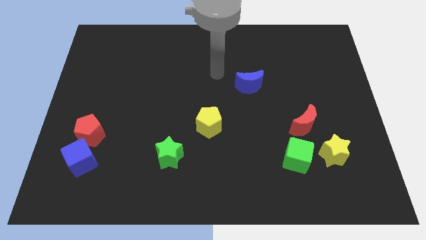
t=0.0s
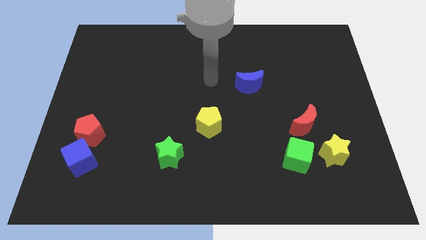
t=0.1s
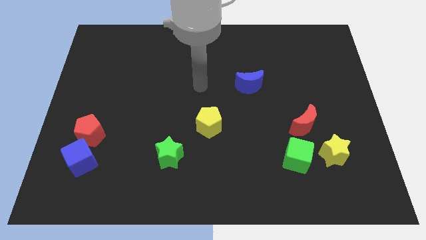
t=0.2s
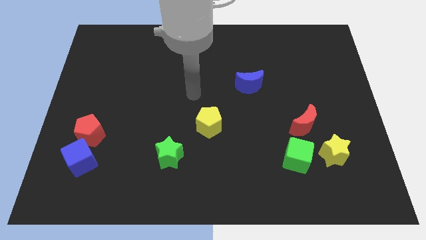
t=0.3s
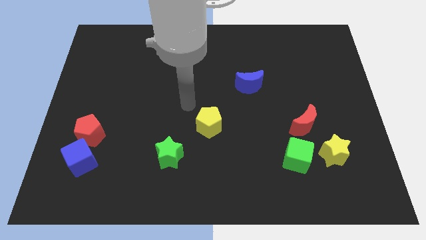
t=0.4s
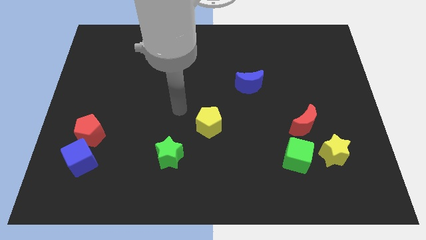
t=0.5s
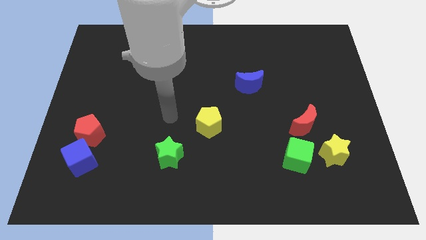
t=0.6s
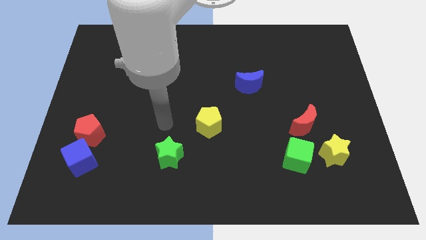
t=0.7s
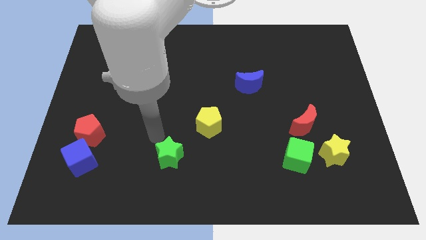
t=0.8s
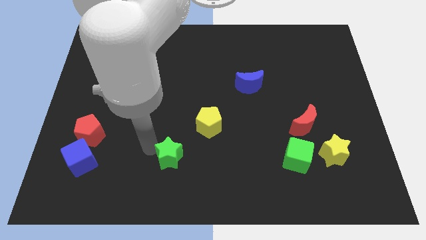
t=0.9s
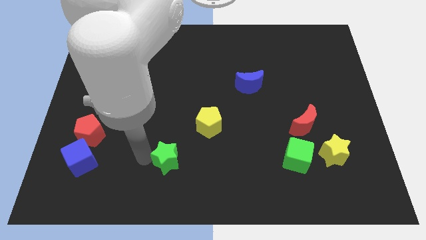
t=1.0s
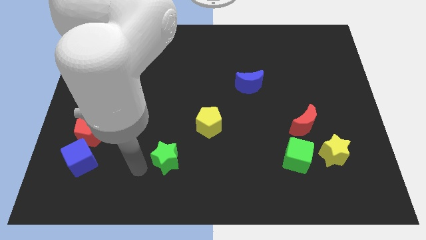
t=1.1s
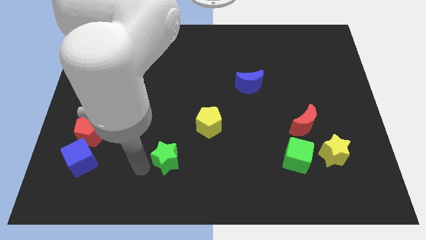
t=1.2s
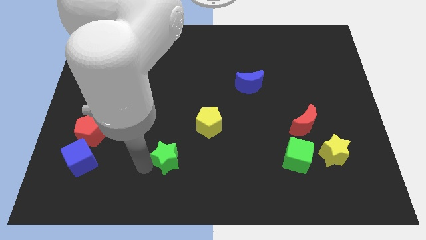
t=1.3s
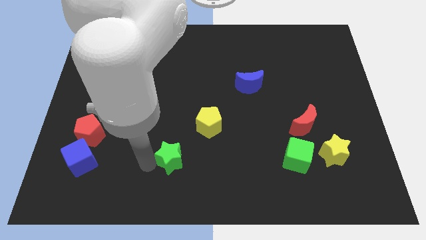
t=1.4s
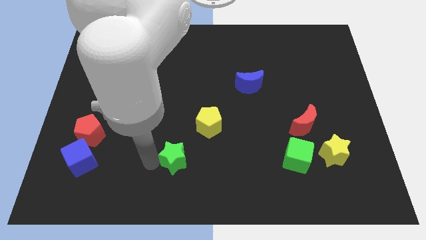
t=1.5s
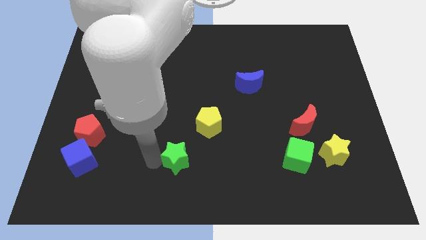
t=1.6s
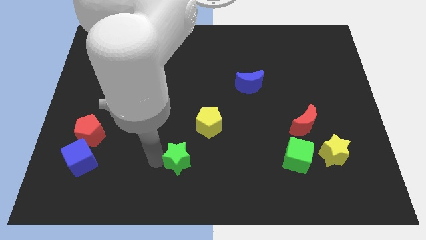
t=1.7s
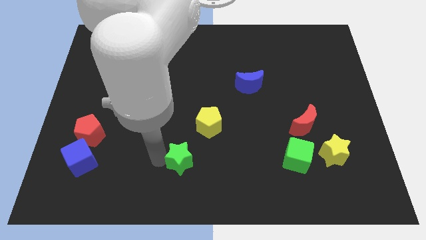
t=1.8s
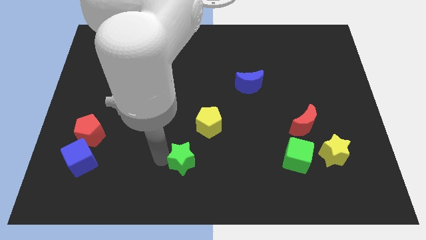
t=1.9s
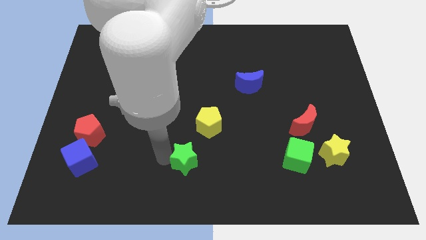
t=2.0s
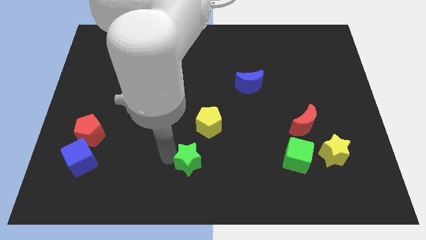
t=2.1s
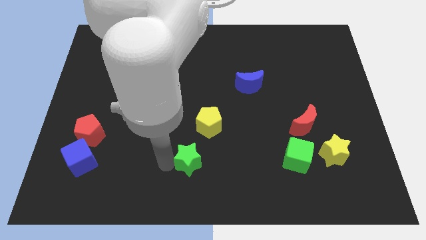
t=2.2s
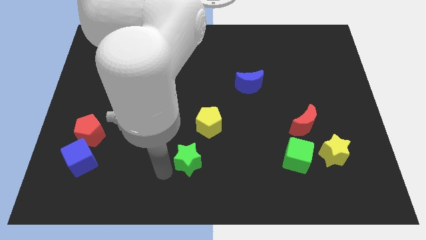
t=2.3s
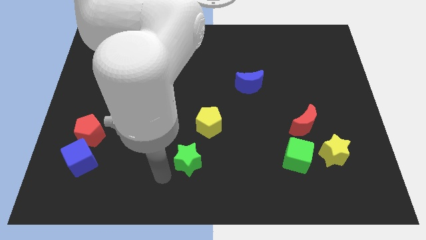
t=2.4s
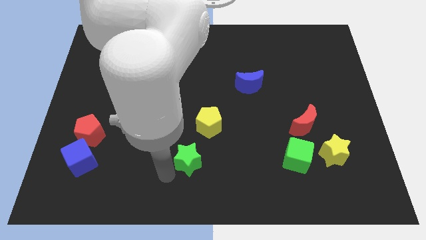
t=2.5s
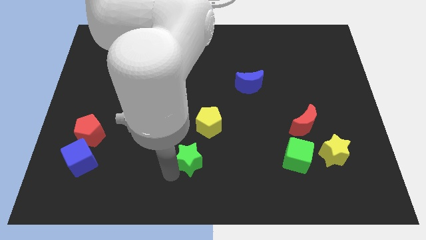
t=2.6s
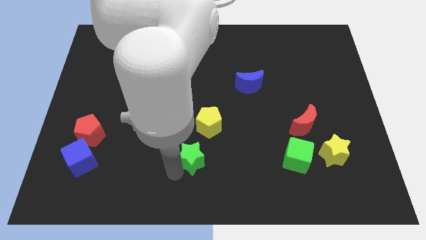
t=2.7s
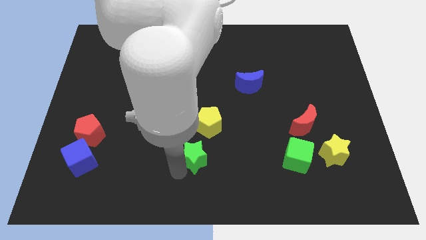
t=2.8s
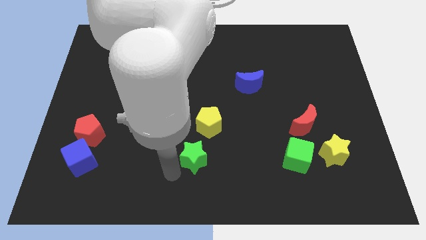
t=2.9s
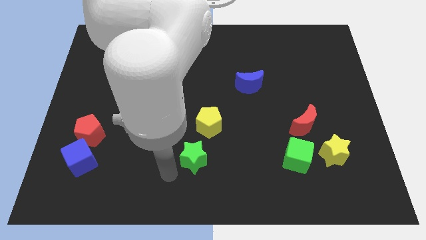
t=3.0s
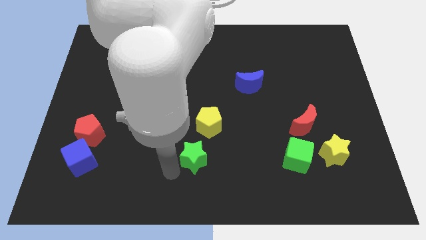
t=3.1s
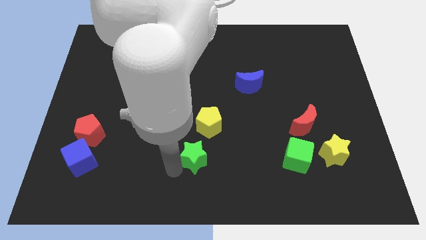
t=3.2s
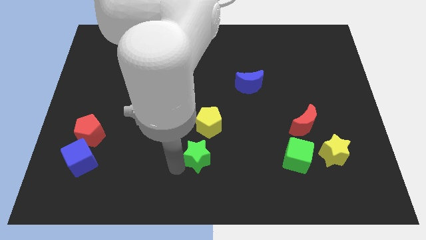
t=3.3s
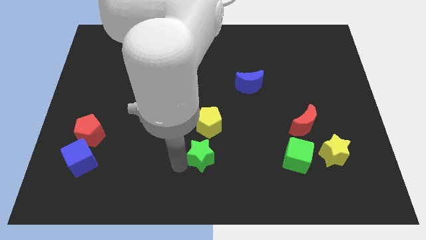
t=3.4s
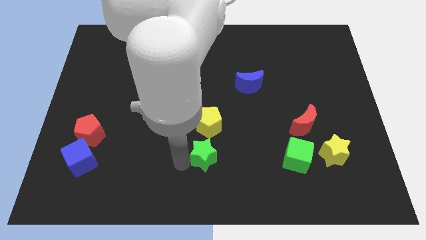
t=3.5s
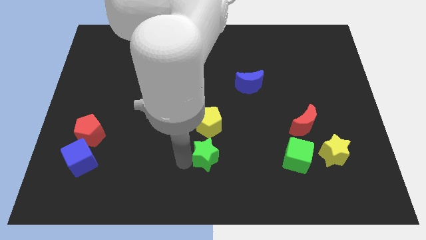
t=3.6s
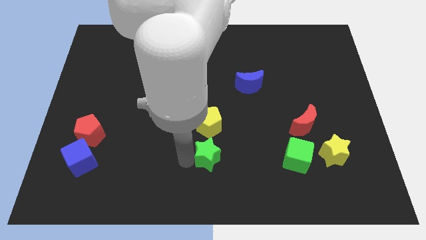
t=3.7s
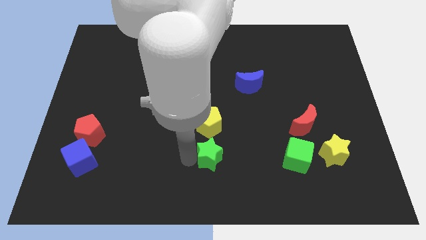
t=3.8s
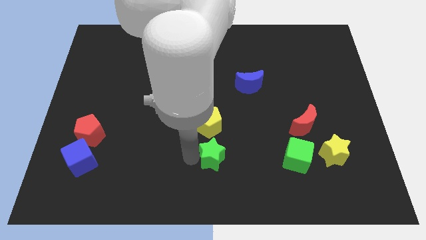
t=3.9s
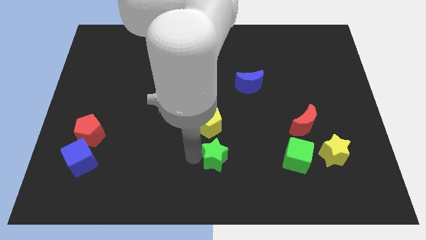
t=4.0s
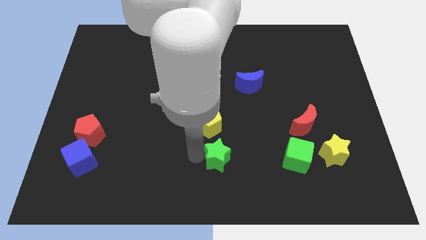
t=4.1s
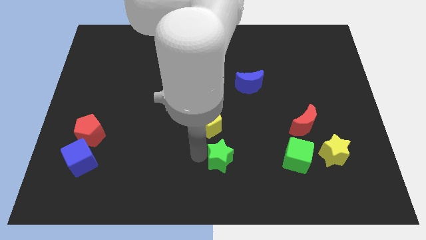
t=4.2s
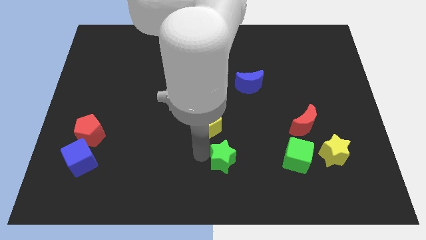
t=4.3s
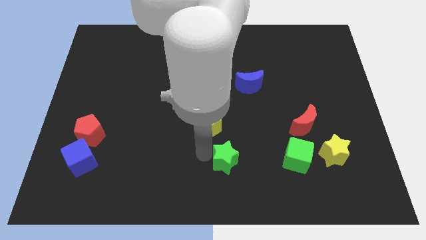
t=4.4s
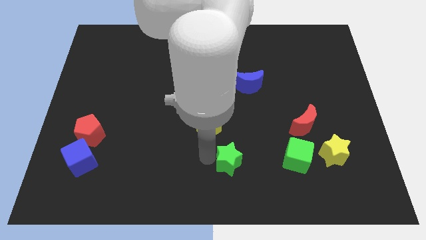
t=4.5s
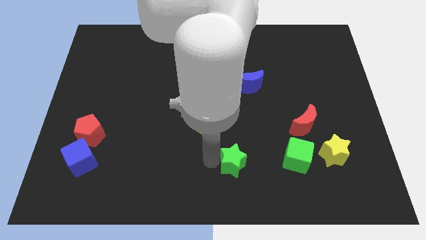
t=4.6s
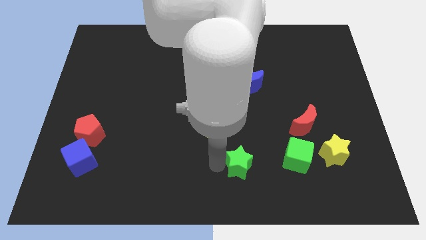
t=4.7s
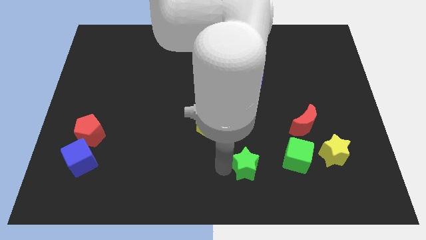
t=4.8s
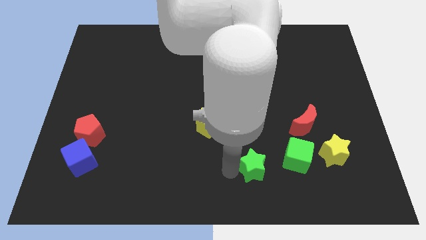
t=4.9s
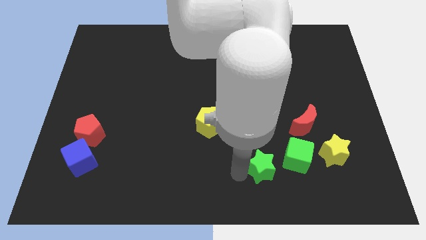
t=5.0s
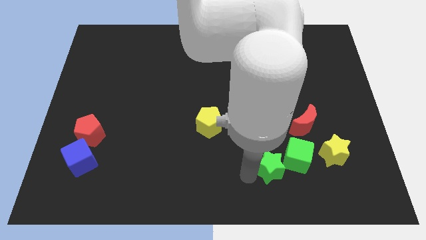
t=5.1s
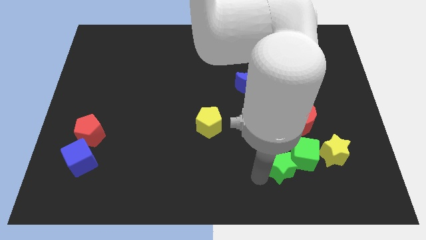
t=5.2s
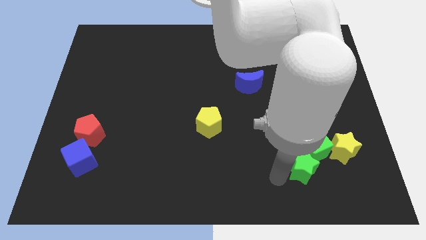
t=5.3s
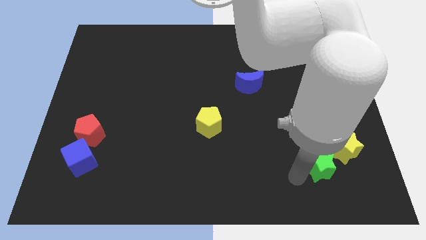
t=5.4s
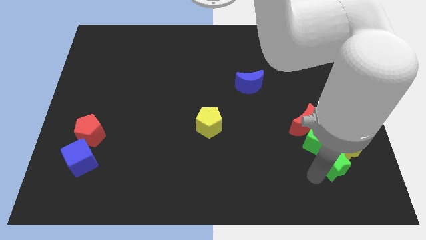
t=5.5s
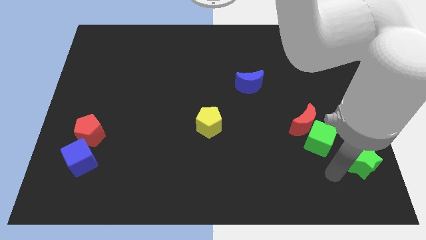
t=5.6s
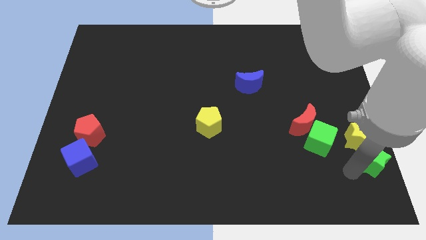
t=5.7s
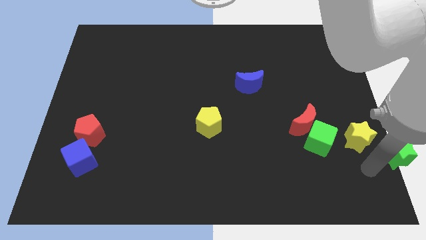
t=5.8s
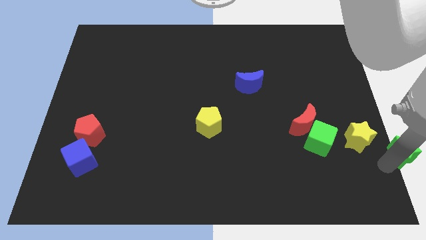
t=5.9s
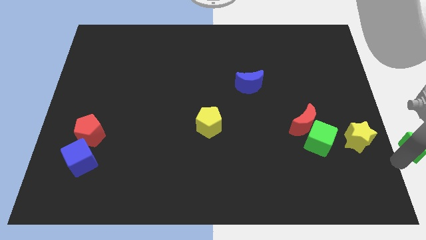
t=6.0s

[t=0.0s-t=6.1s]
move the green star to the right side

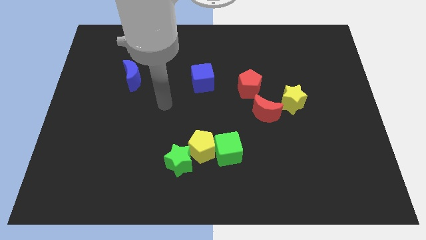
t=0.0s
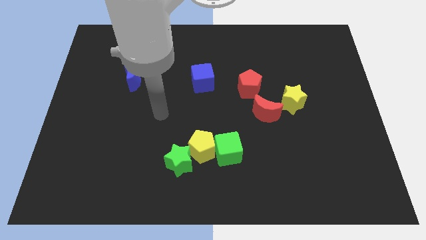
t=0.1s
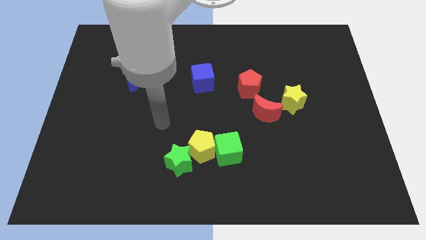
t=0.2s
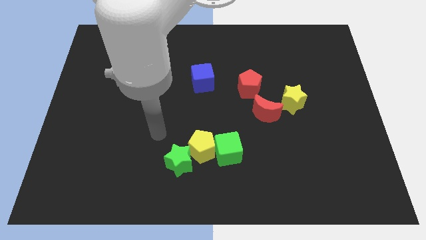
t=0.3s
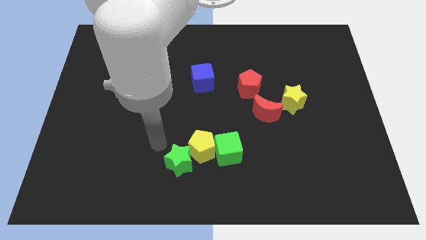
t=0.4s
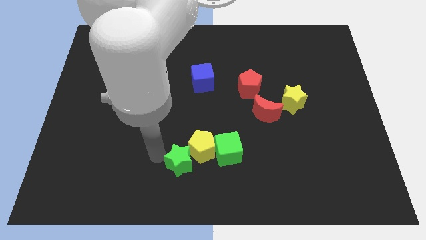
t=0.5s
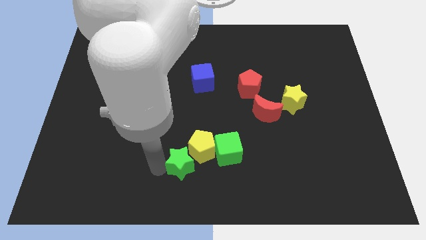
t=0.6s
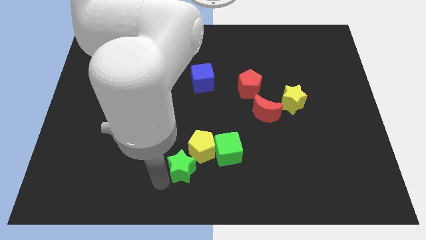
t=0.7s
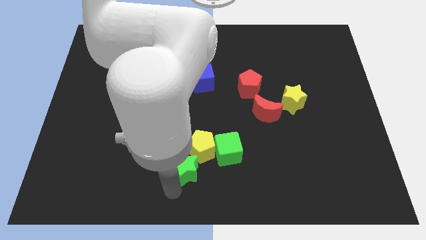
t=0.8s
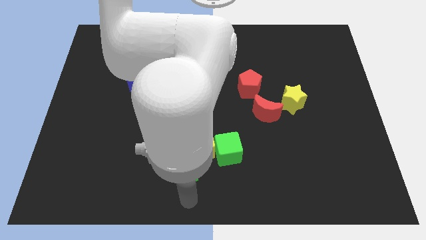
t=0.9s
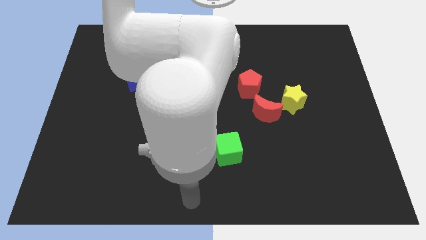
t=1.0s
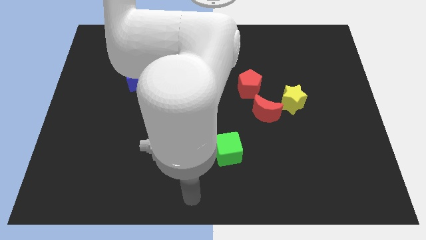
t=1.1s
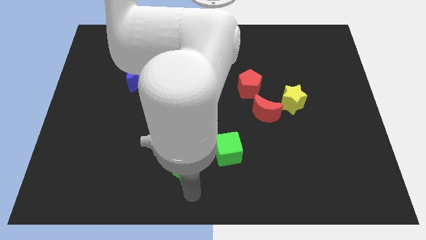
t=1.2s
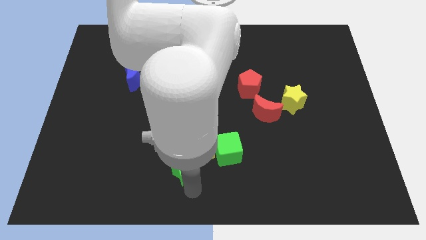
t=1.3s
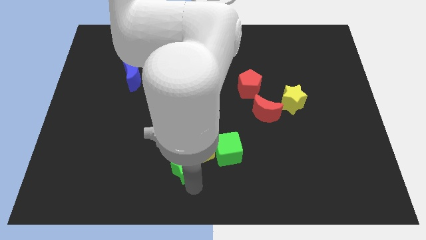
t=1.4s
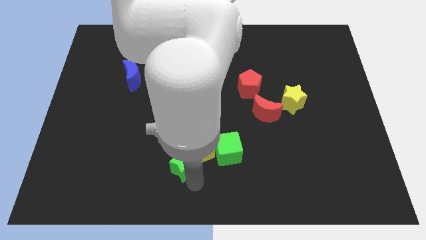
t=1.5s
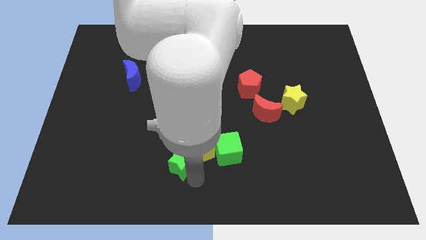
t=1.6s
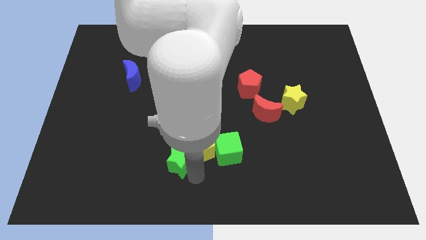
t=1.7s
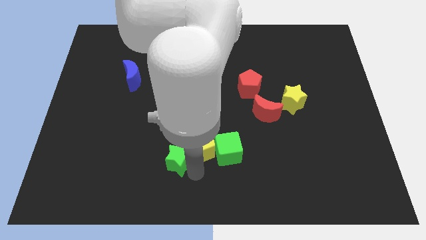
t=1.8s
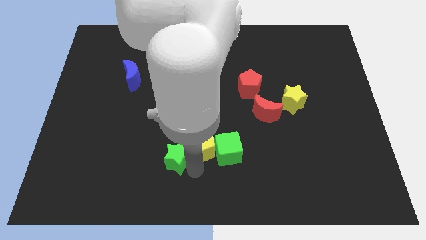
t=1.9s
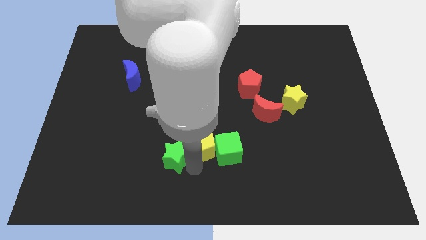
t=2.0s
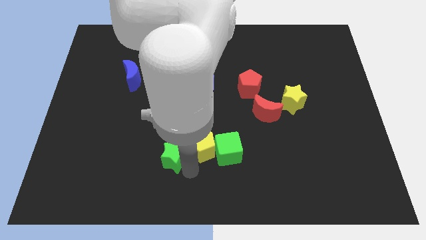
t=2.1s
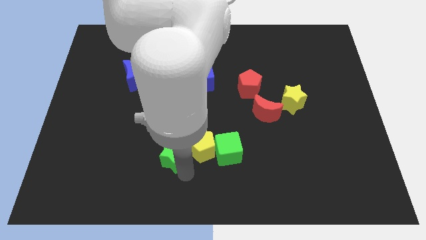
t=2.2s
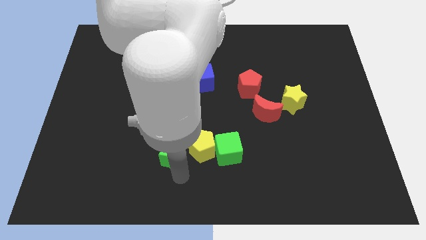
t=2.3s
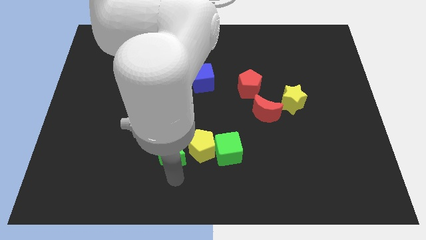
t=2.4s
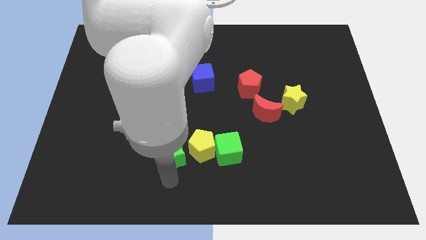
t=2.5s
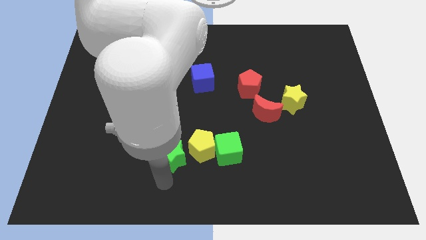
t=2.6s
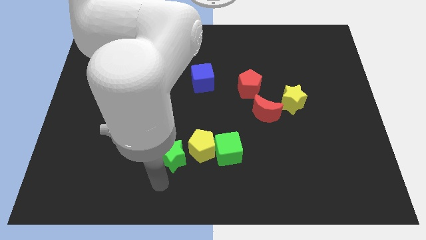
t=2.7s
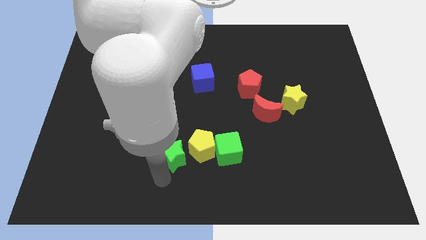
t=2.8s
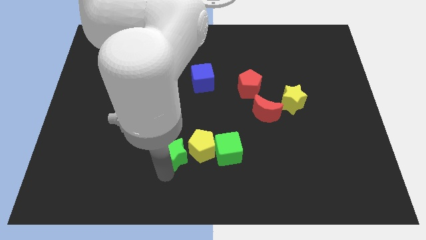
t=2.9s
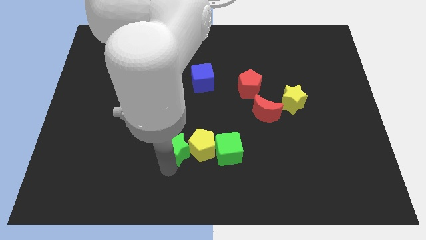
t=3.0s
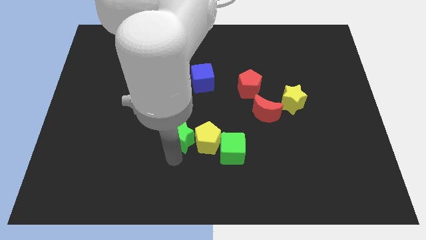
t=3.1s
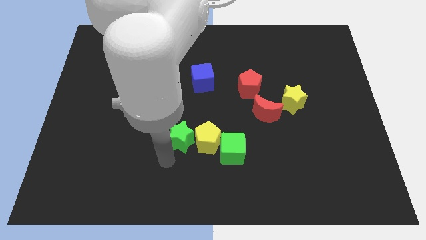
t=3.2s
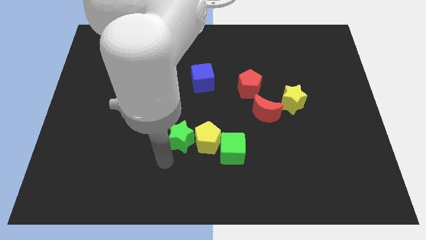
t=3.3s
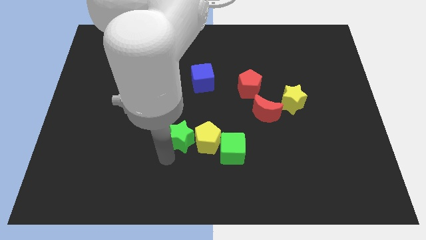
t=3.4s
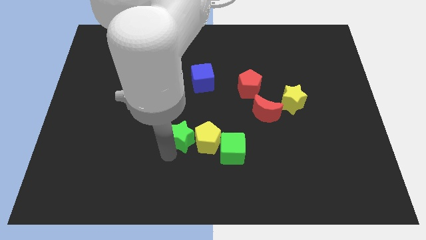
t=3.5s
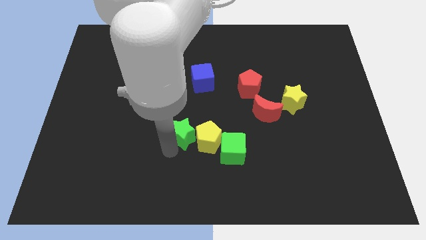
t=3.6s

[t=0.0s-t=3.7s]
move the green star to the center of the board
